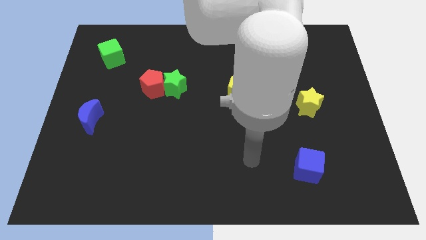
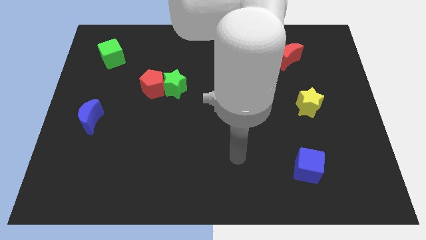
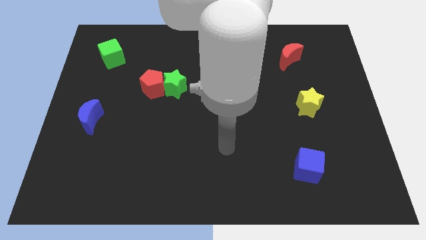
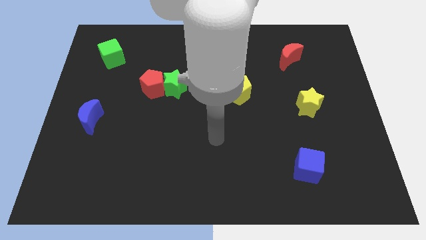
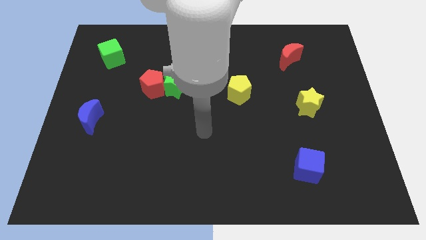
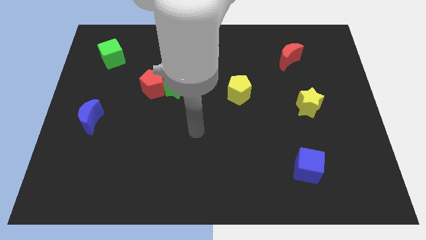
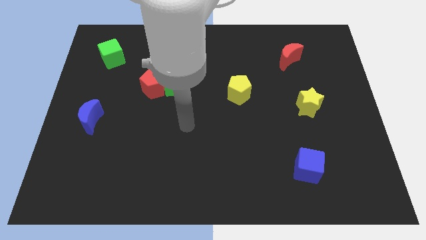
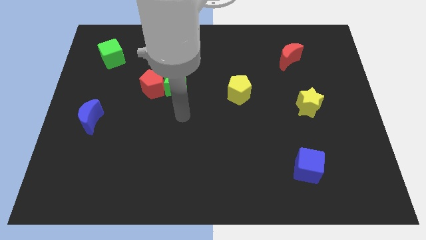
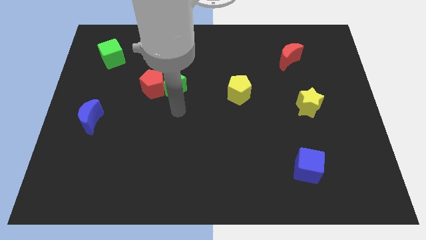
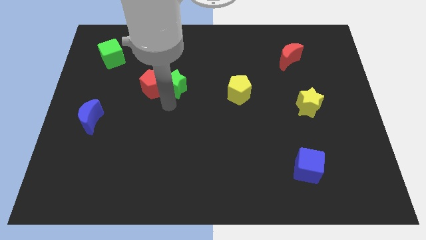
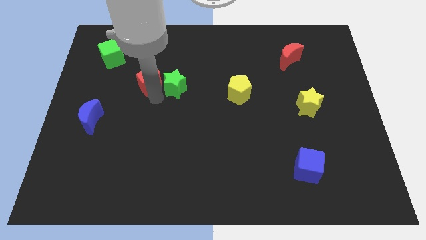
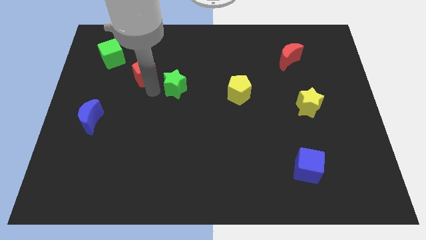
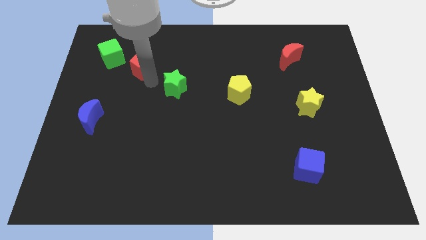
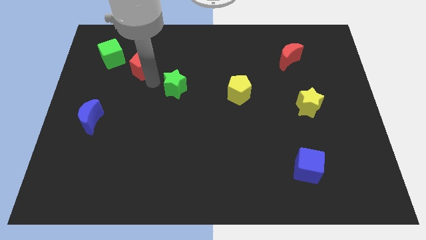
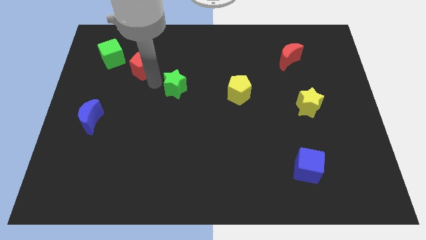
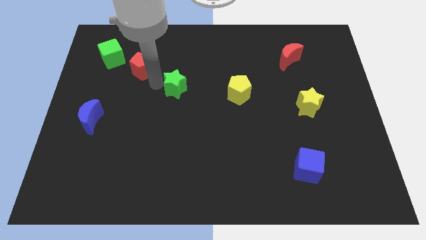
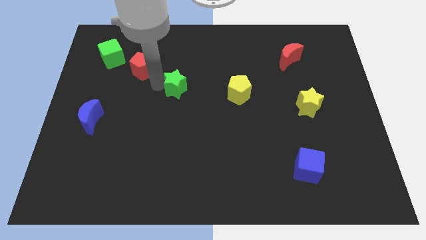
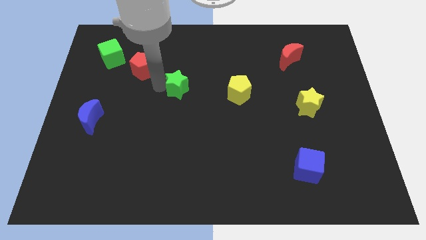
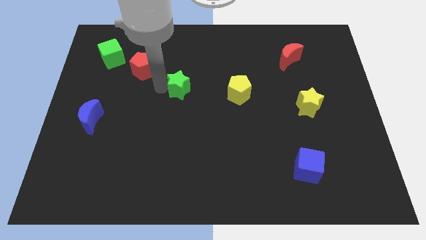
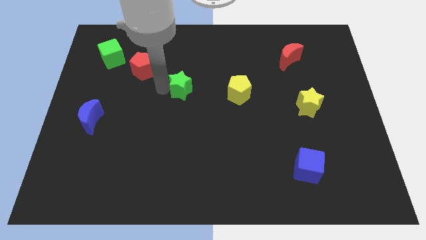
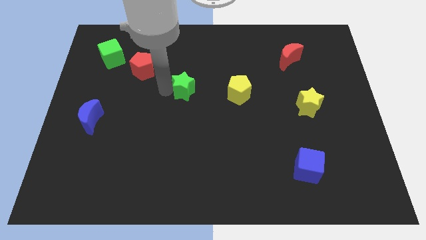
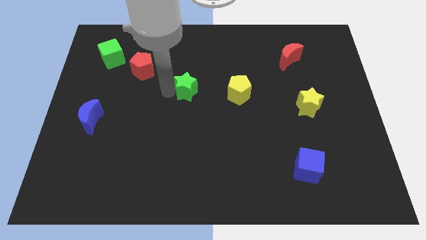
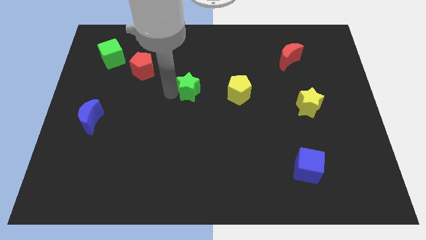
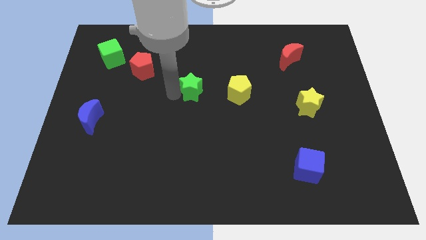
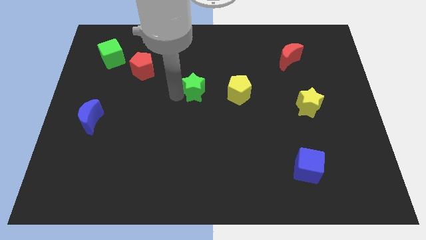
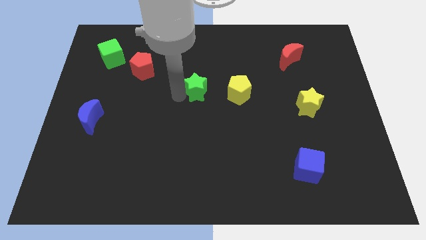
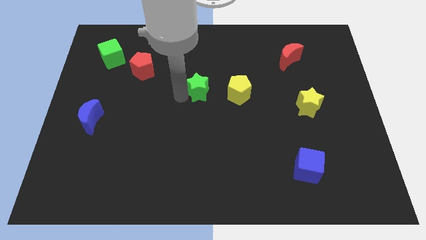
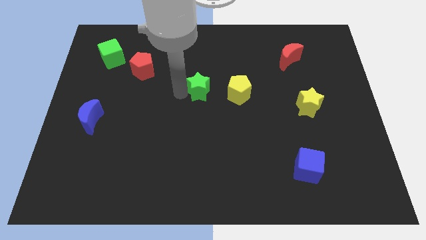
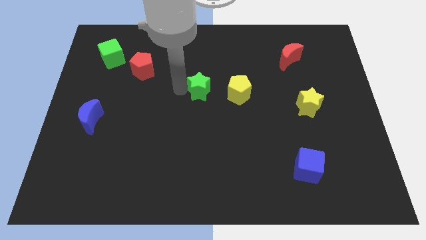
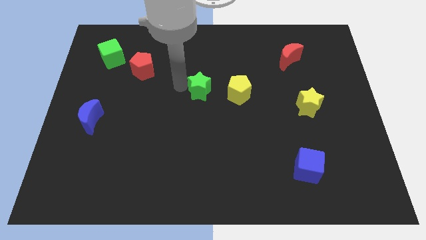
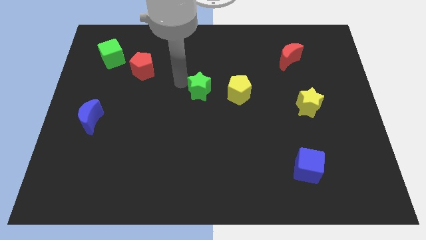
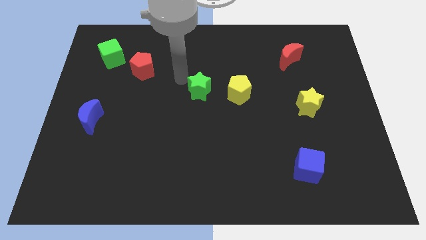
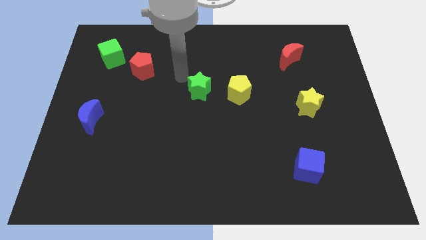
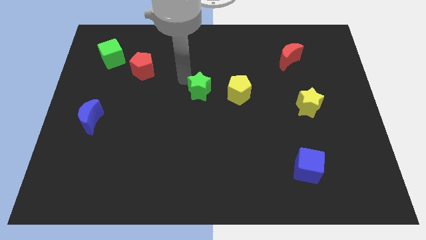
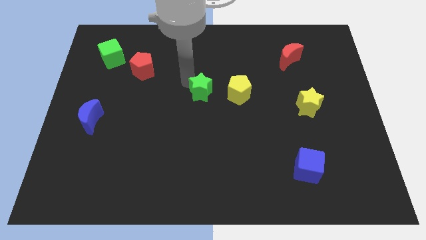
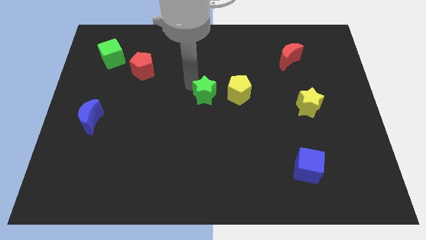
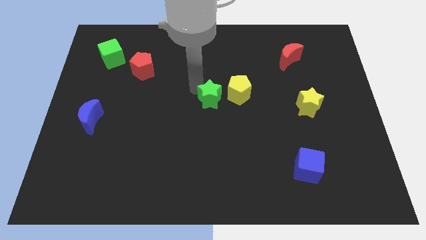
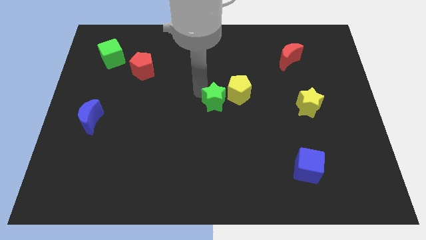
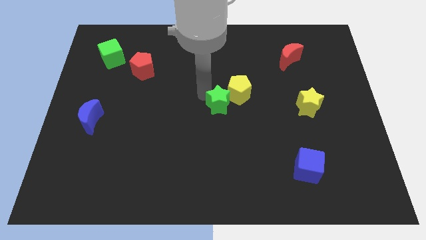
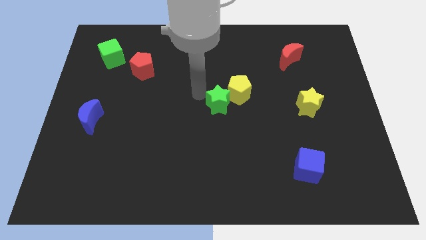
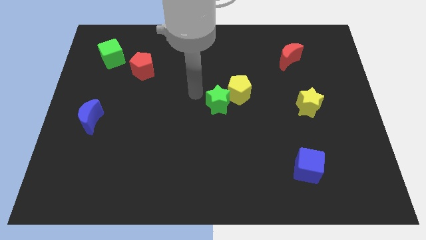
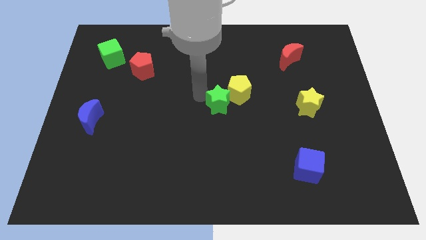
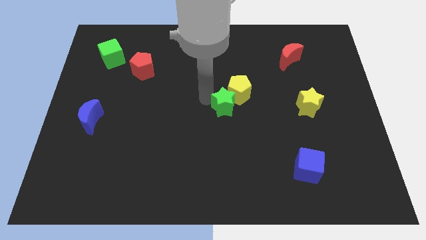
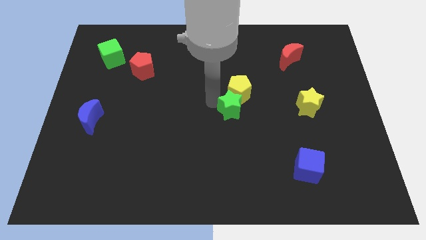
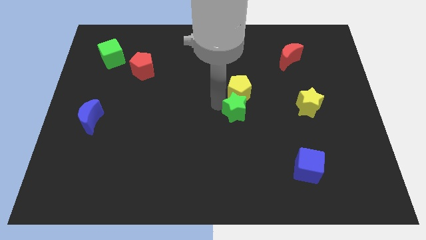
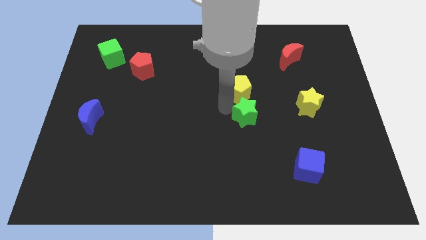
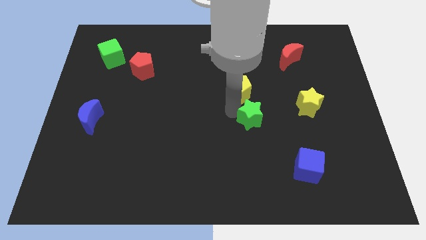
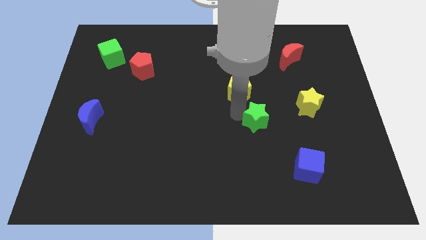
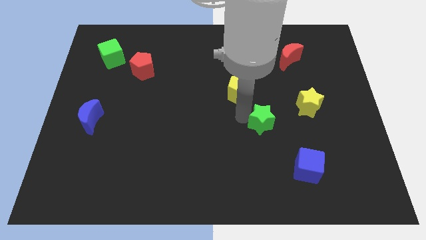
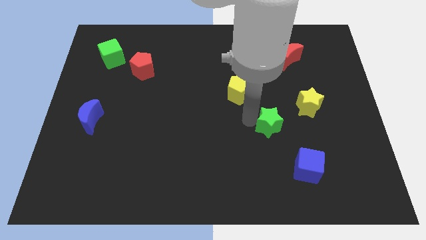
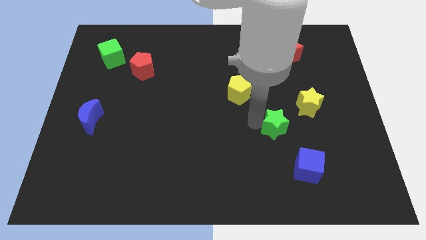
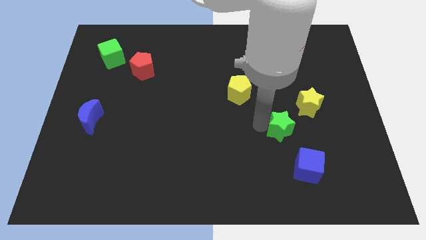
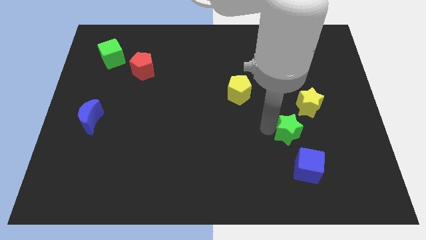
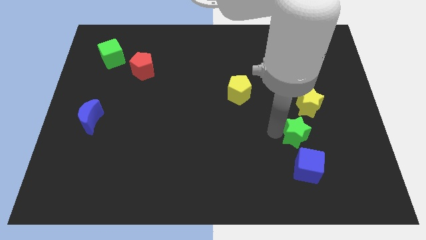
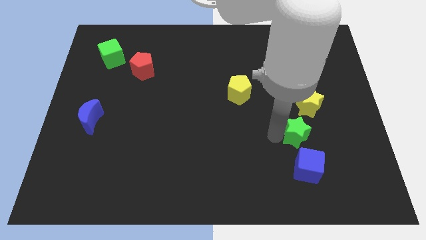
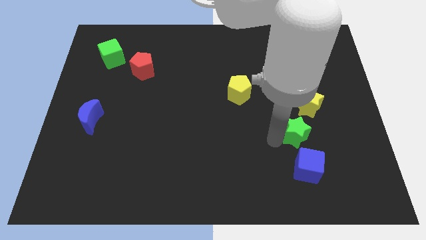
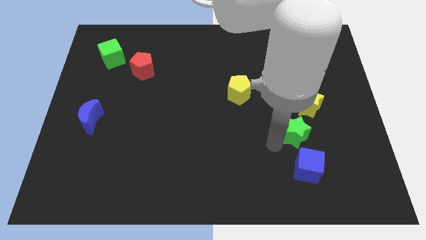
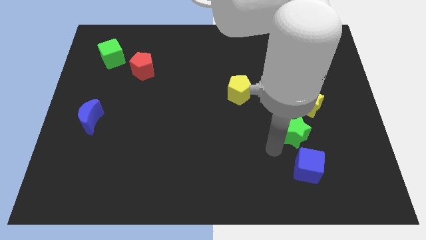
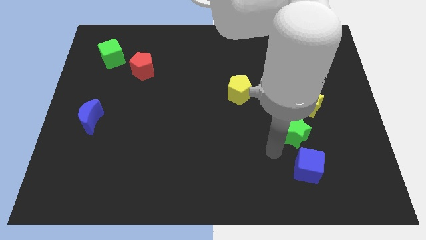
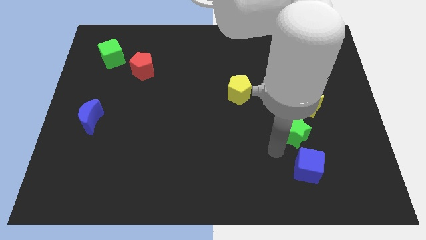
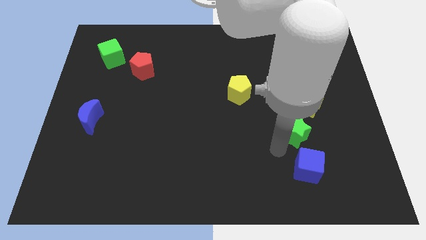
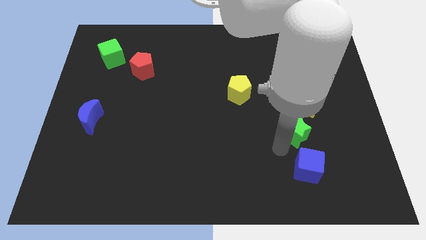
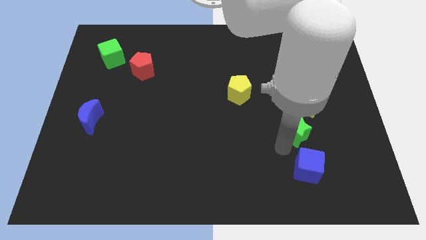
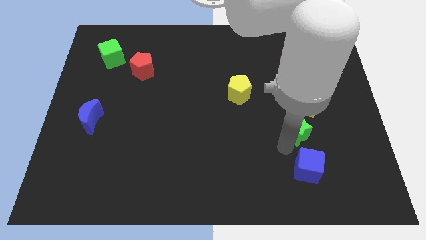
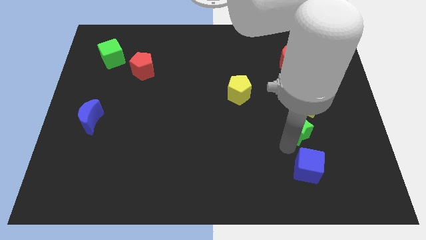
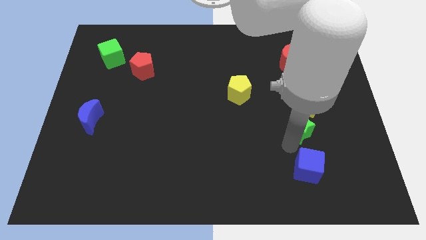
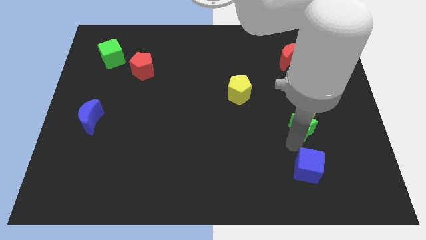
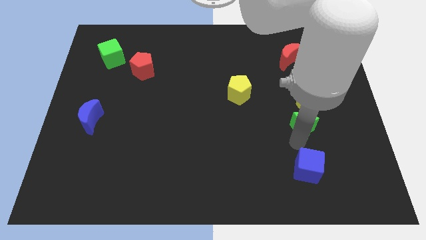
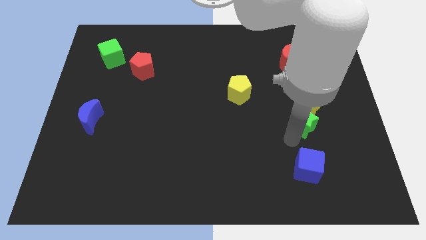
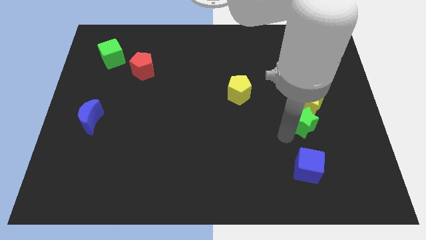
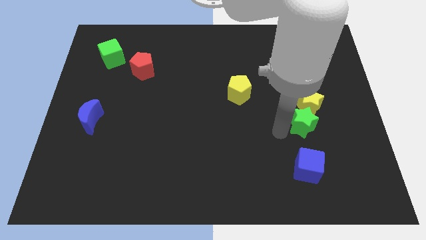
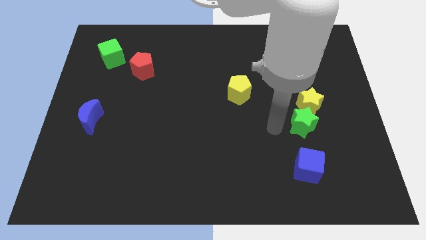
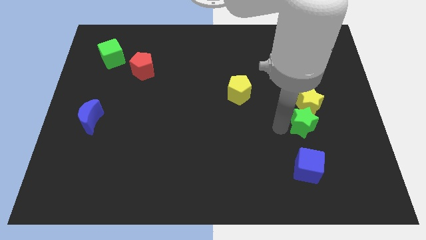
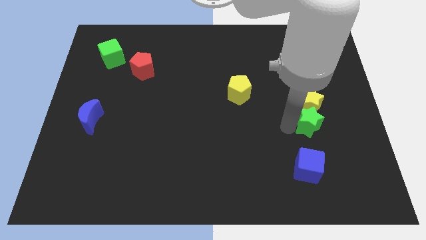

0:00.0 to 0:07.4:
put the green star to the bottom right side of the yellow star

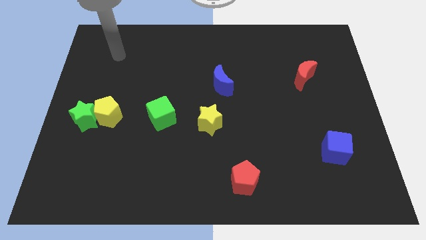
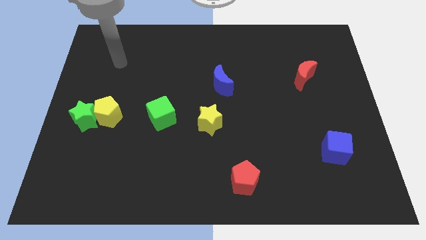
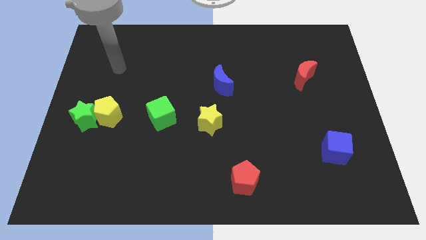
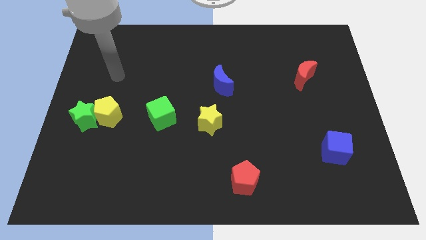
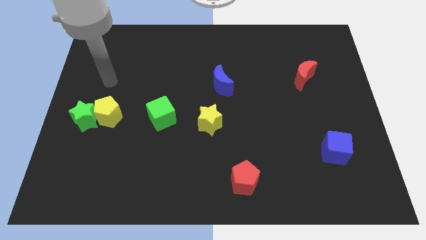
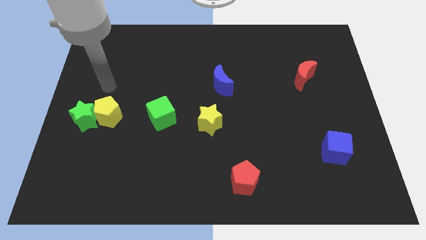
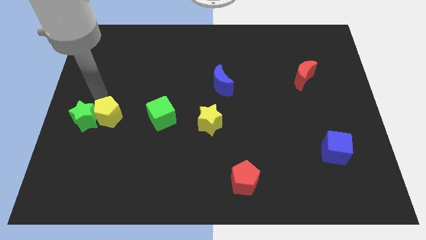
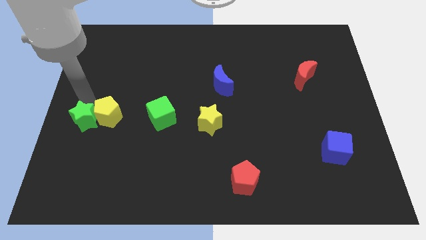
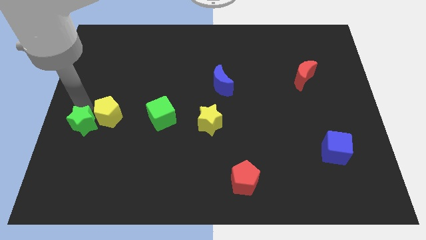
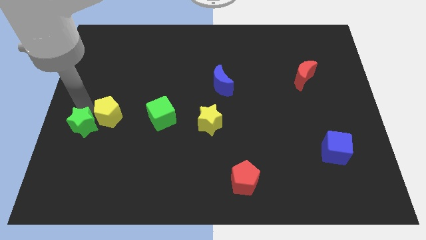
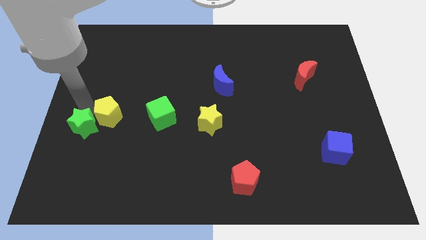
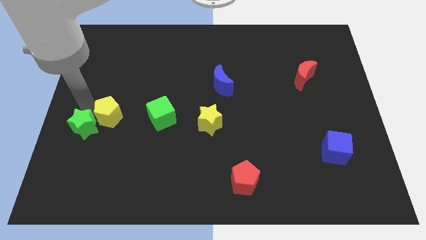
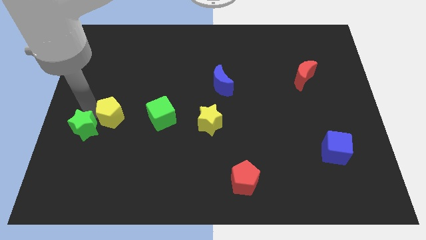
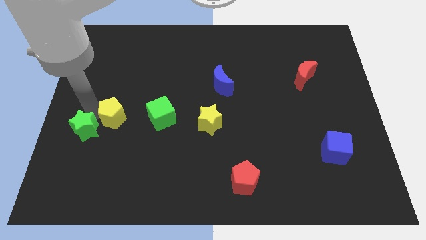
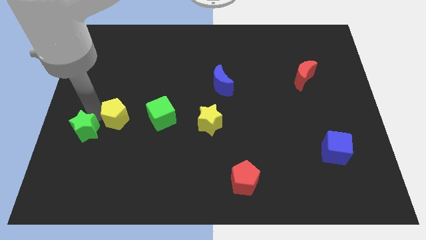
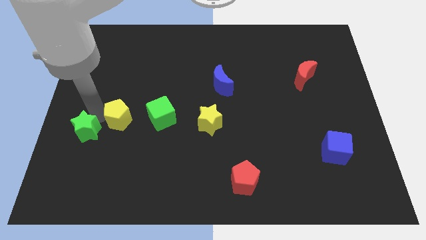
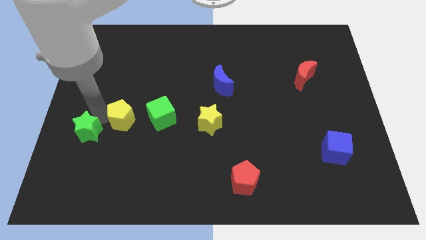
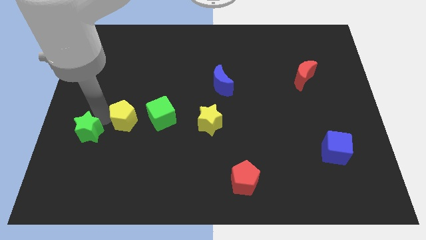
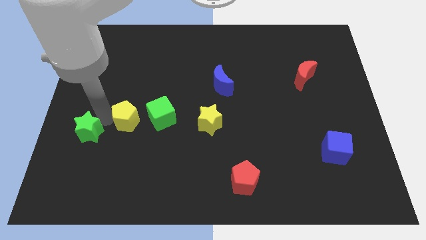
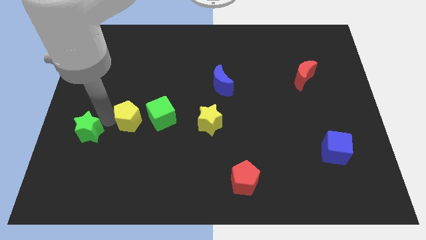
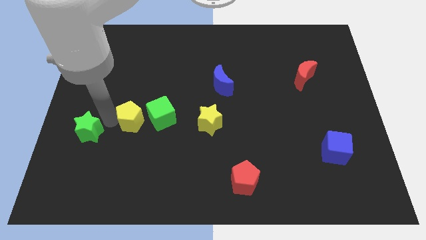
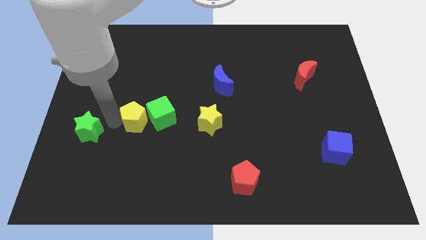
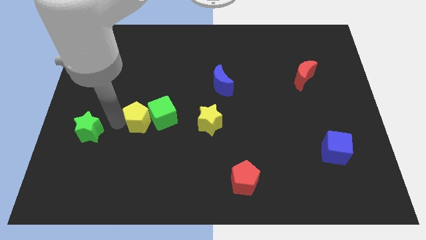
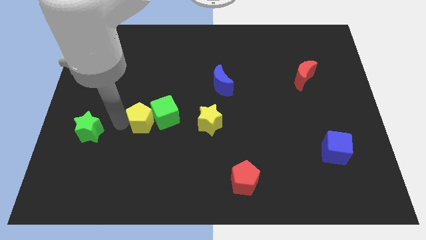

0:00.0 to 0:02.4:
move the yellow pentagon left of the yellow star
